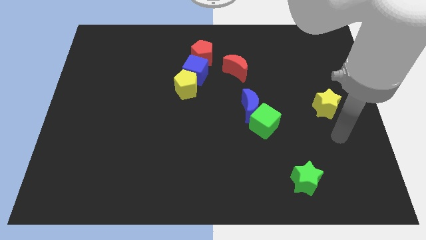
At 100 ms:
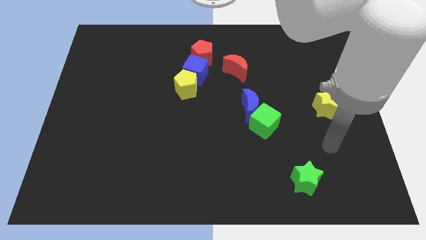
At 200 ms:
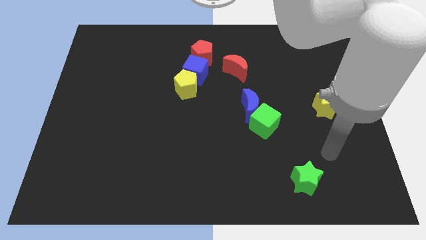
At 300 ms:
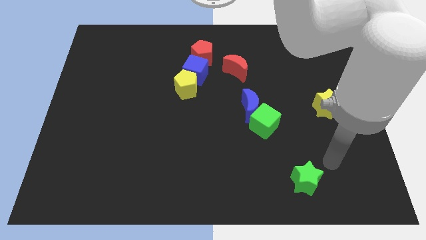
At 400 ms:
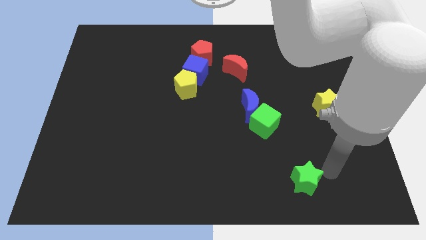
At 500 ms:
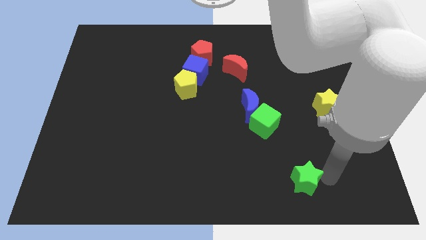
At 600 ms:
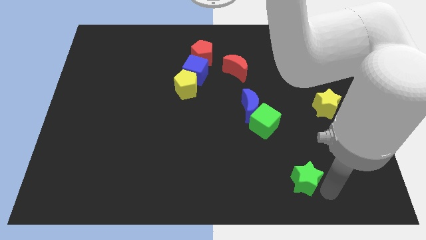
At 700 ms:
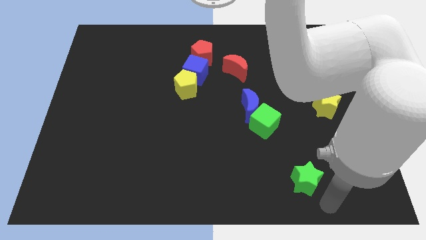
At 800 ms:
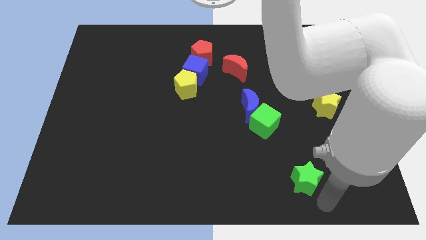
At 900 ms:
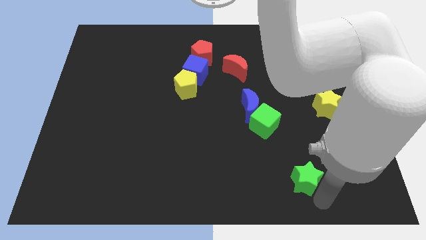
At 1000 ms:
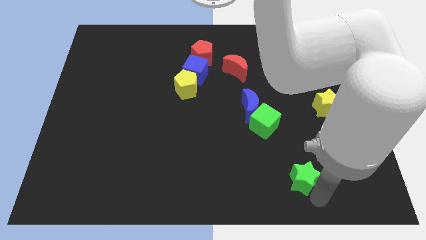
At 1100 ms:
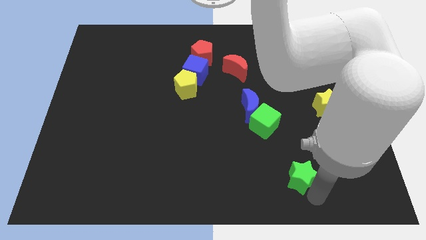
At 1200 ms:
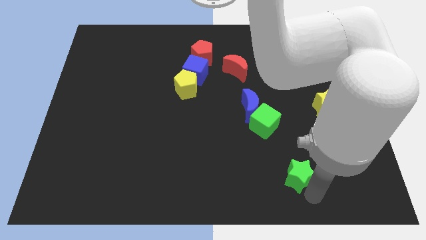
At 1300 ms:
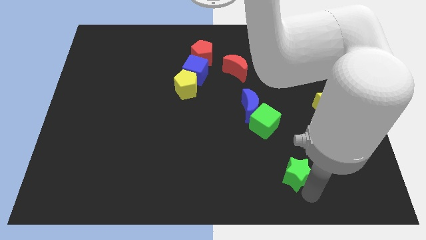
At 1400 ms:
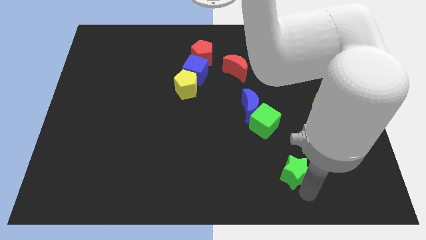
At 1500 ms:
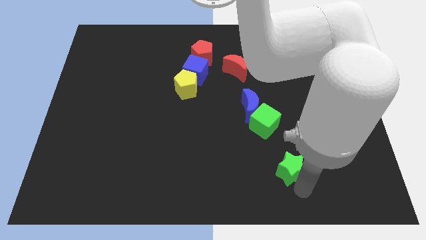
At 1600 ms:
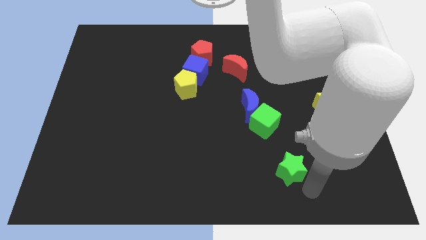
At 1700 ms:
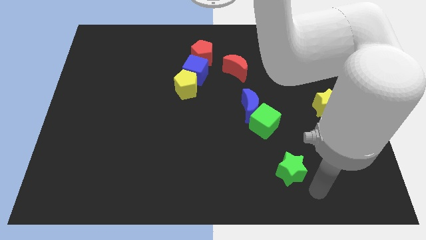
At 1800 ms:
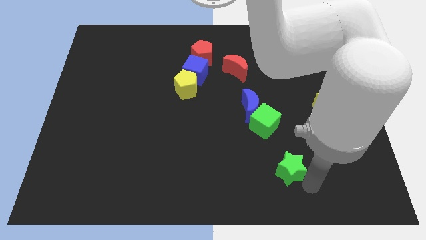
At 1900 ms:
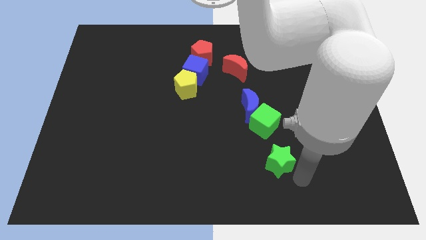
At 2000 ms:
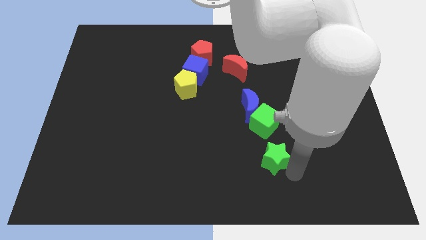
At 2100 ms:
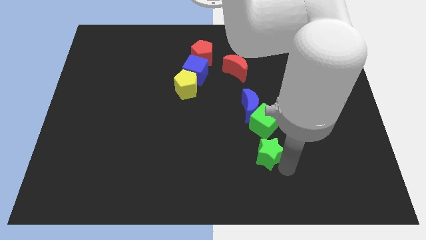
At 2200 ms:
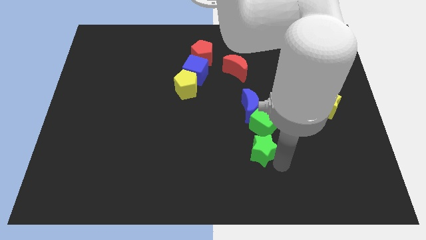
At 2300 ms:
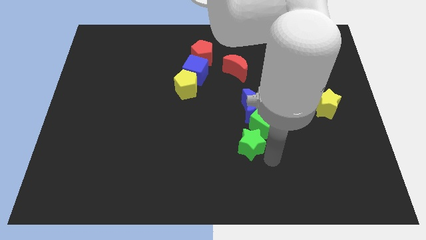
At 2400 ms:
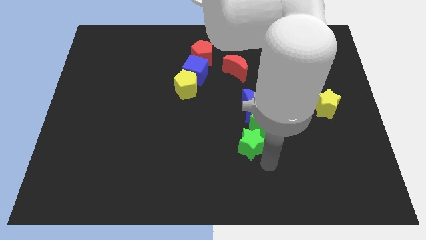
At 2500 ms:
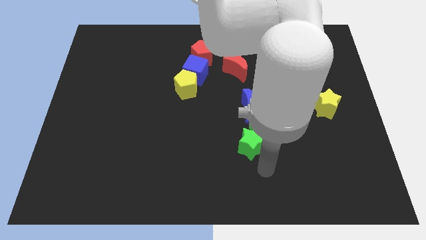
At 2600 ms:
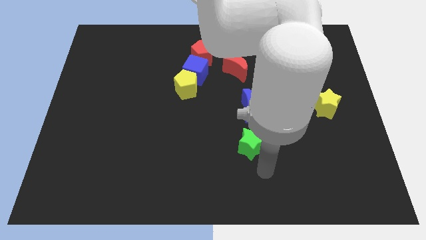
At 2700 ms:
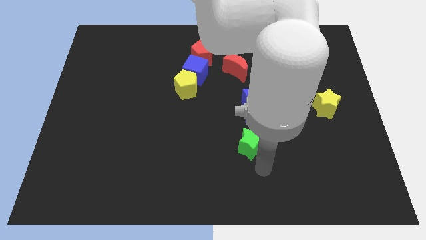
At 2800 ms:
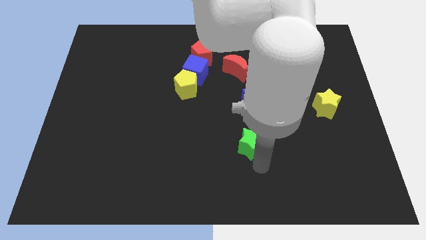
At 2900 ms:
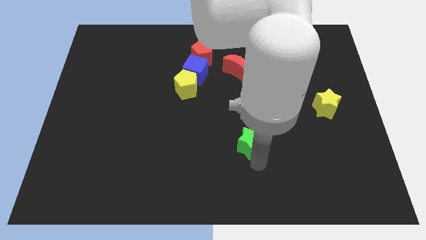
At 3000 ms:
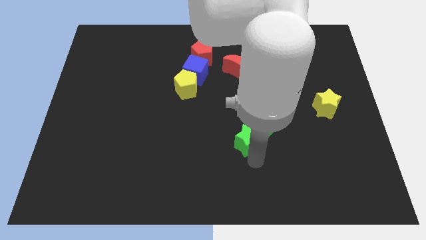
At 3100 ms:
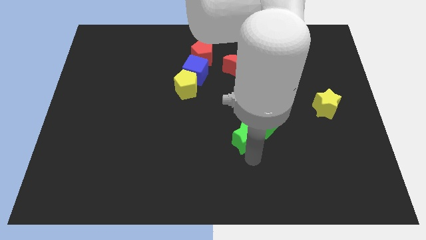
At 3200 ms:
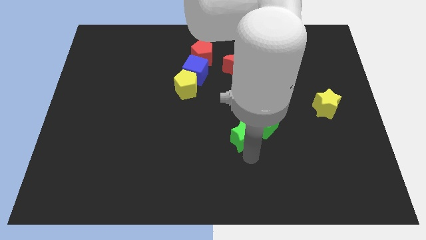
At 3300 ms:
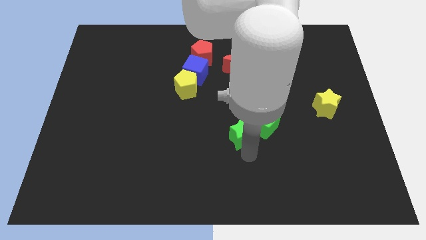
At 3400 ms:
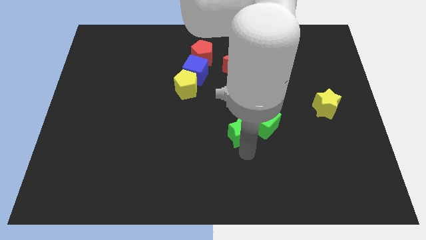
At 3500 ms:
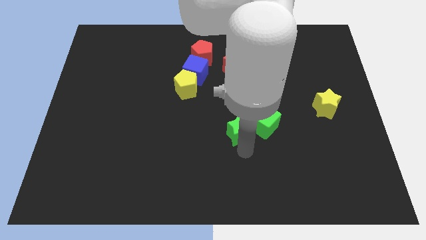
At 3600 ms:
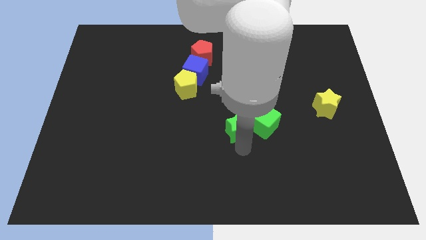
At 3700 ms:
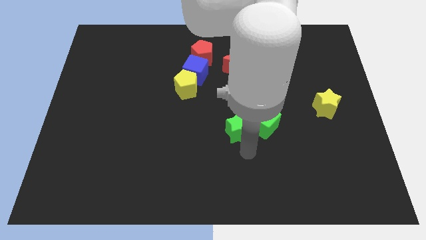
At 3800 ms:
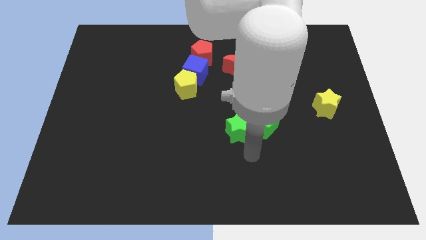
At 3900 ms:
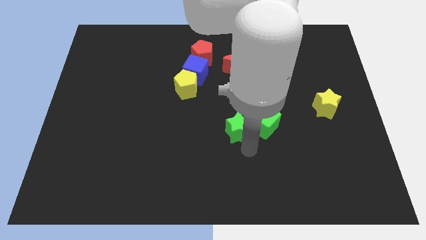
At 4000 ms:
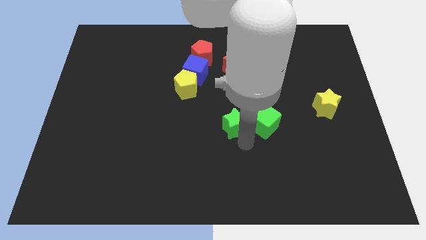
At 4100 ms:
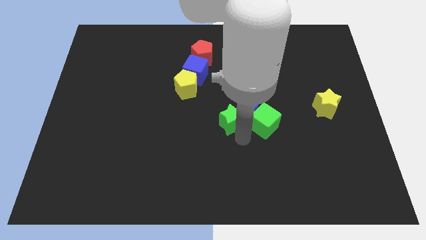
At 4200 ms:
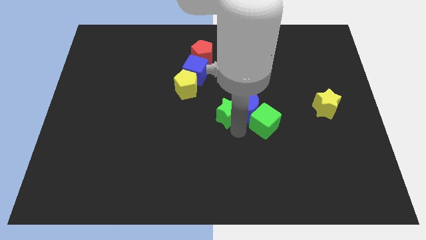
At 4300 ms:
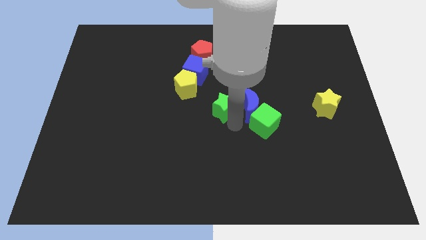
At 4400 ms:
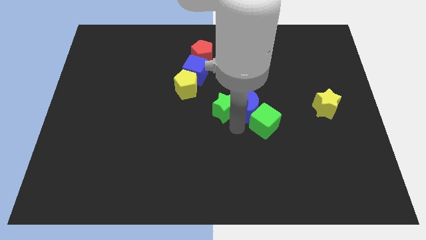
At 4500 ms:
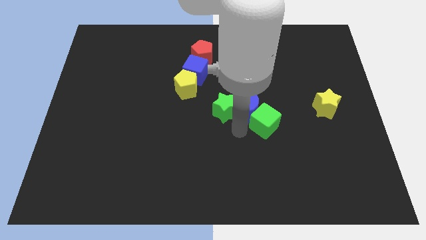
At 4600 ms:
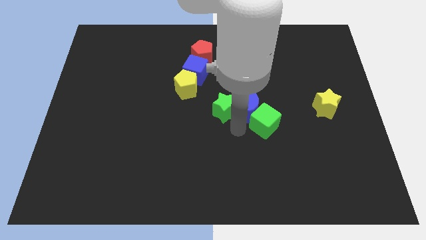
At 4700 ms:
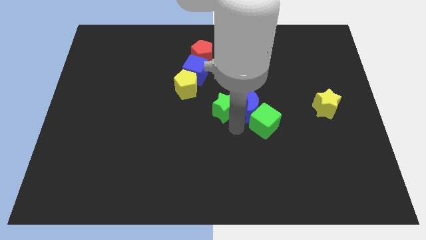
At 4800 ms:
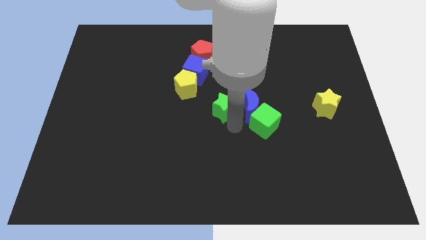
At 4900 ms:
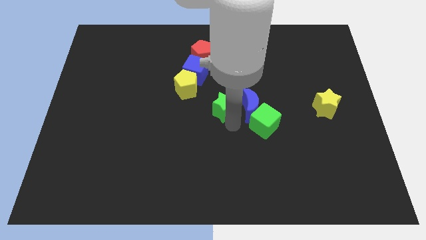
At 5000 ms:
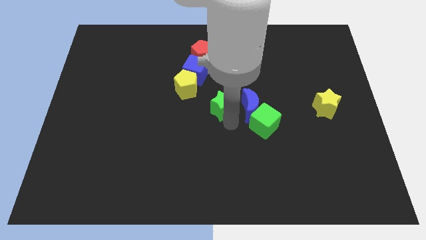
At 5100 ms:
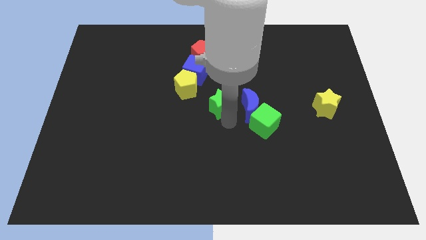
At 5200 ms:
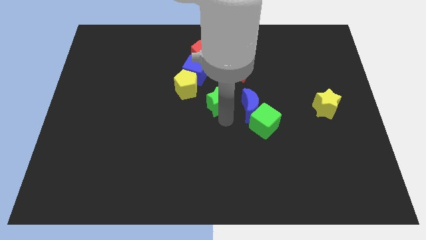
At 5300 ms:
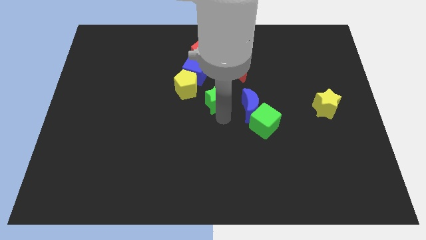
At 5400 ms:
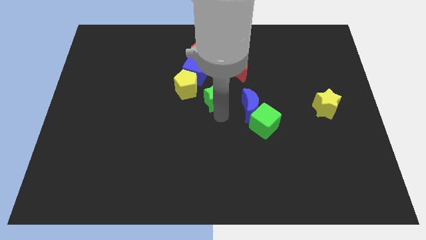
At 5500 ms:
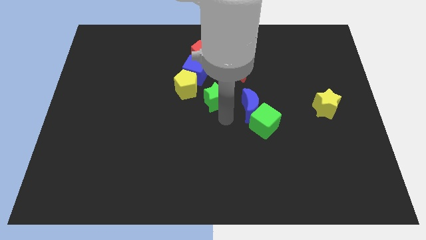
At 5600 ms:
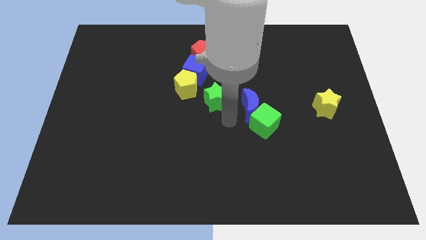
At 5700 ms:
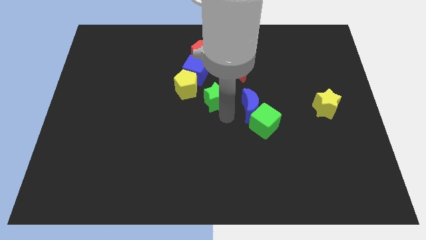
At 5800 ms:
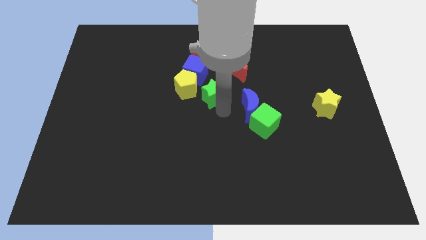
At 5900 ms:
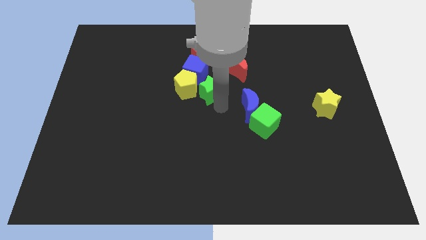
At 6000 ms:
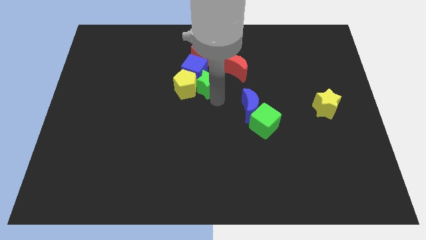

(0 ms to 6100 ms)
put the green star to the blue cube
